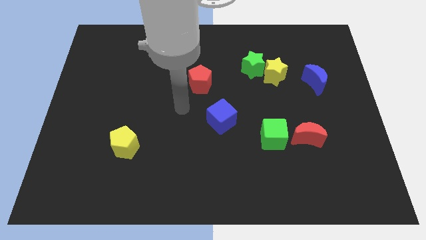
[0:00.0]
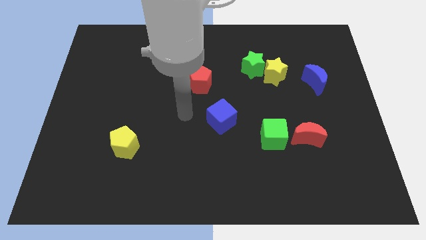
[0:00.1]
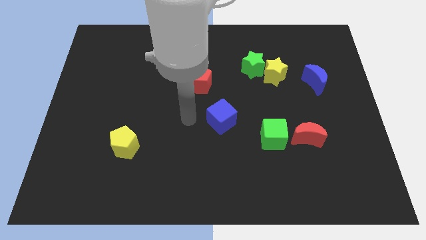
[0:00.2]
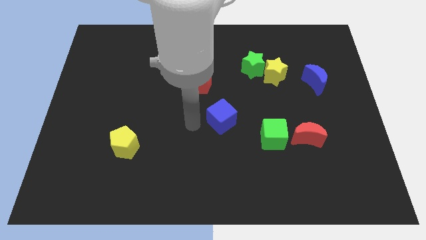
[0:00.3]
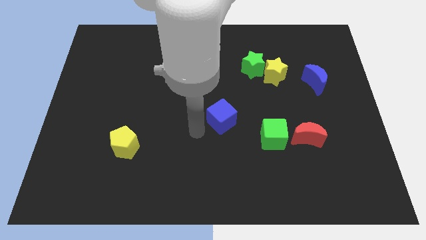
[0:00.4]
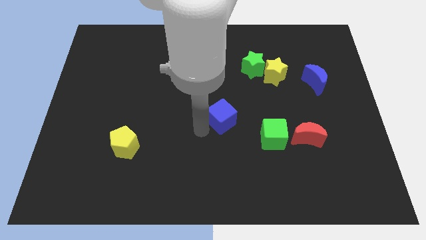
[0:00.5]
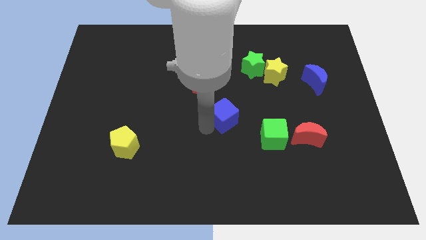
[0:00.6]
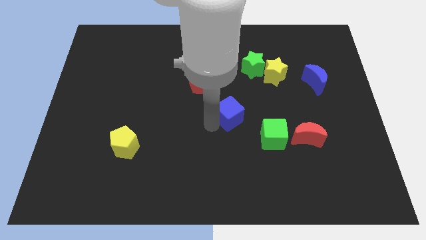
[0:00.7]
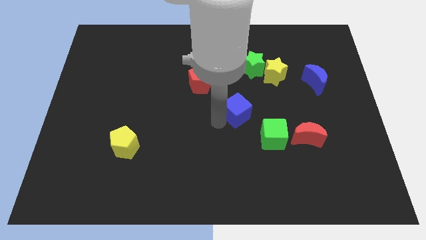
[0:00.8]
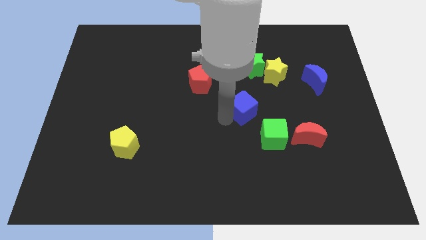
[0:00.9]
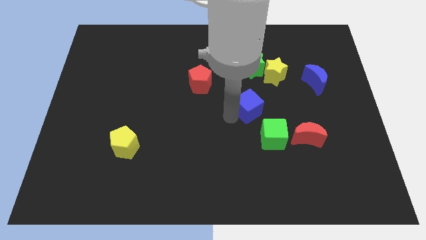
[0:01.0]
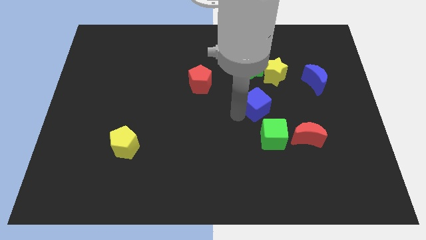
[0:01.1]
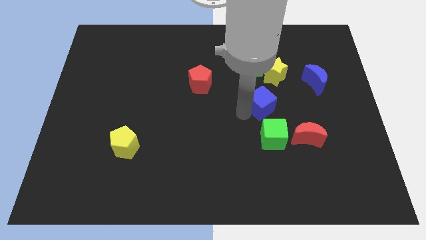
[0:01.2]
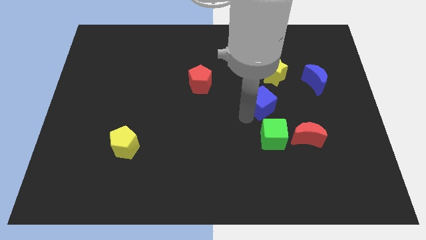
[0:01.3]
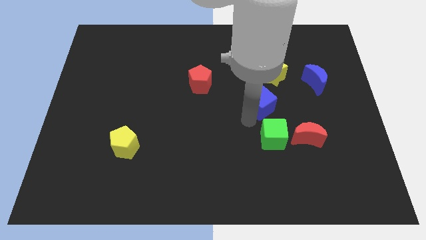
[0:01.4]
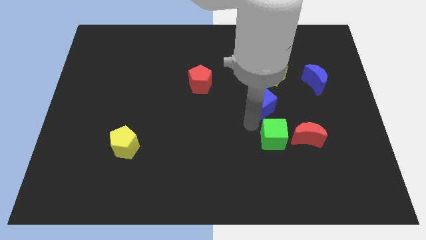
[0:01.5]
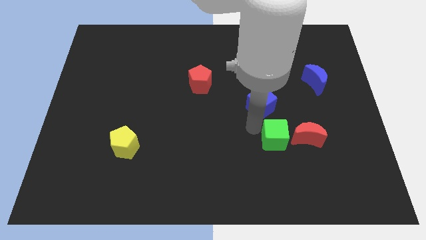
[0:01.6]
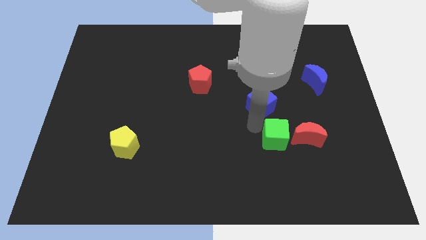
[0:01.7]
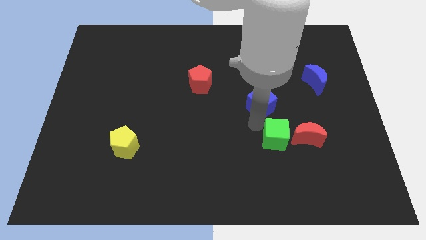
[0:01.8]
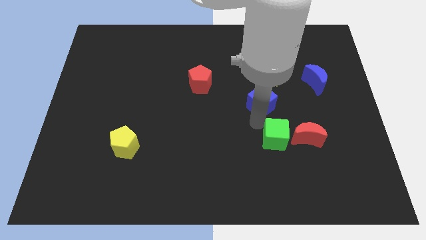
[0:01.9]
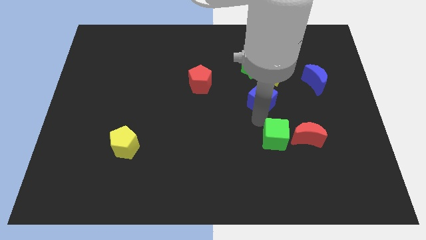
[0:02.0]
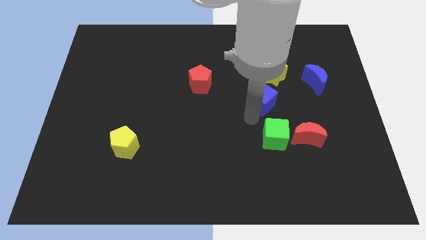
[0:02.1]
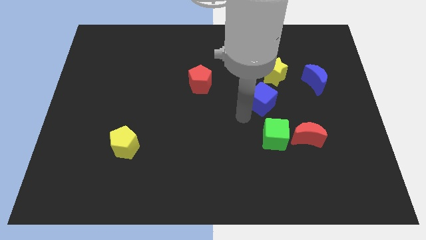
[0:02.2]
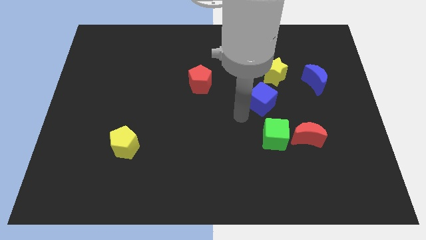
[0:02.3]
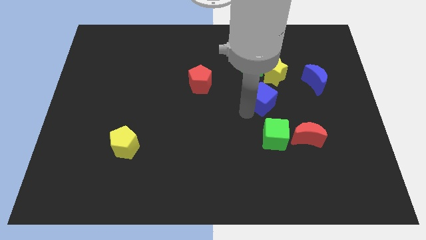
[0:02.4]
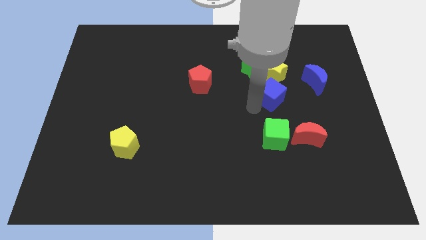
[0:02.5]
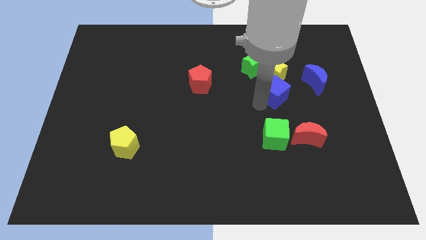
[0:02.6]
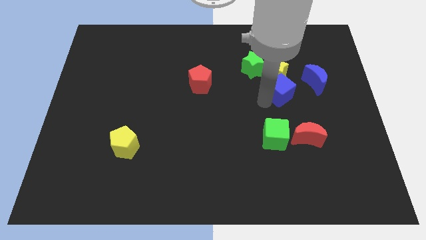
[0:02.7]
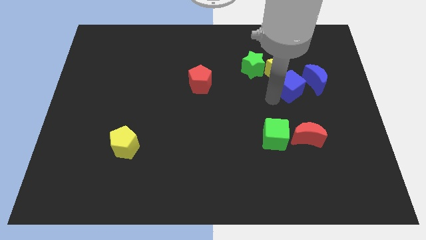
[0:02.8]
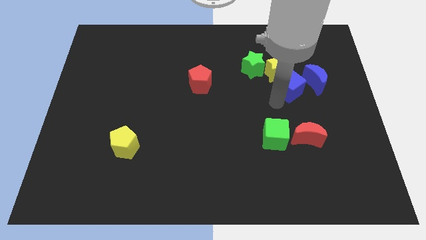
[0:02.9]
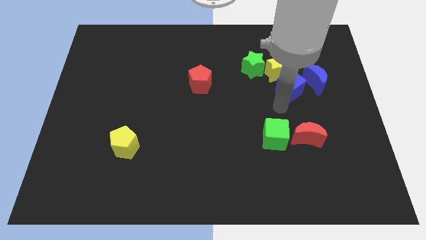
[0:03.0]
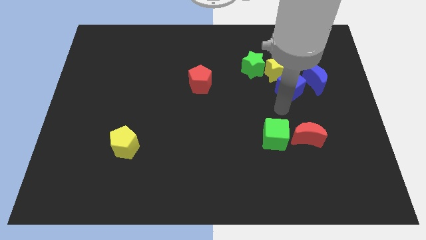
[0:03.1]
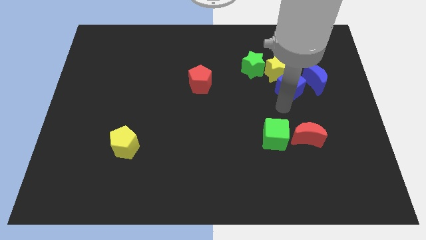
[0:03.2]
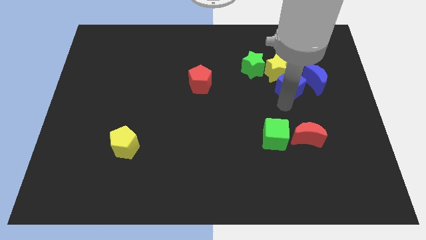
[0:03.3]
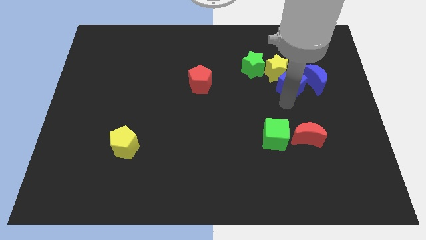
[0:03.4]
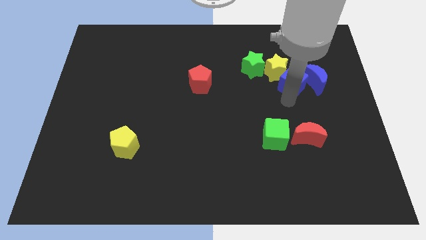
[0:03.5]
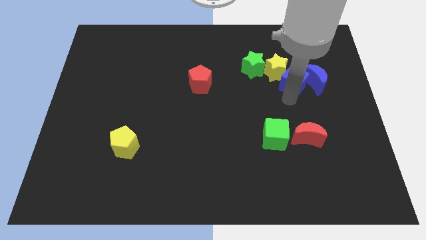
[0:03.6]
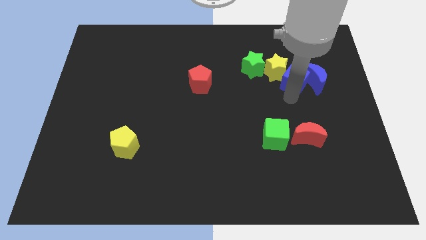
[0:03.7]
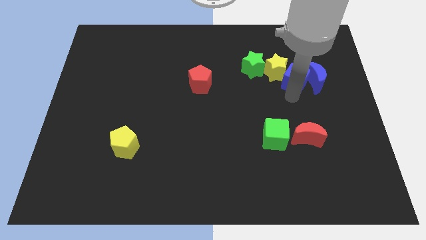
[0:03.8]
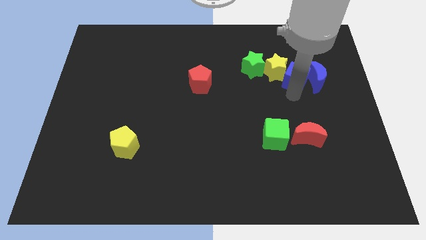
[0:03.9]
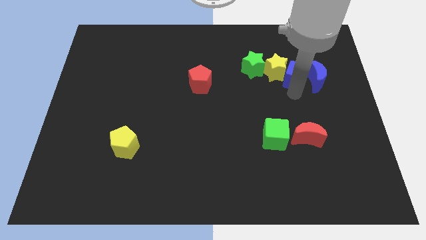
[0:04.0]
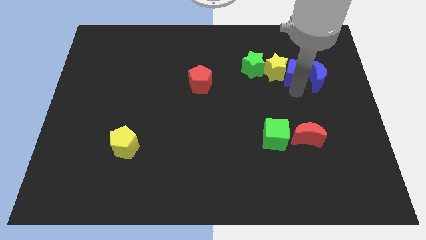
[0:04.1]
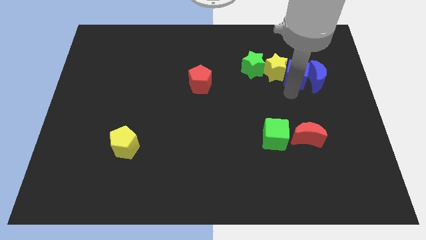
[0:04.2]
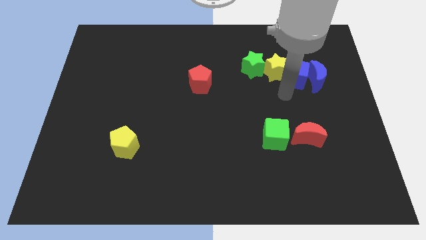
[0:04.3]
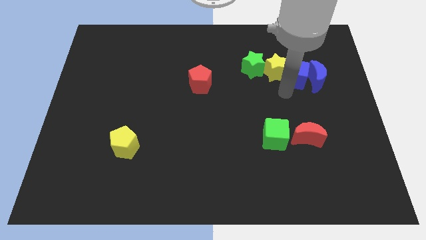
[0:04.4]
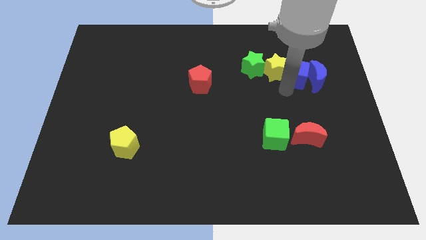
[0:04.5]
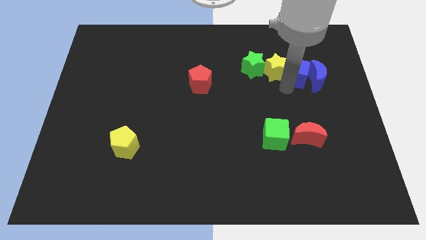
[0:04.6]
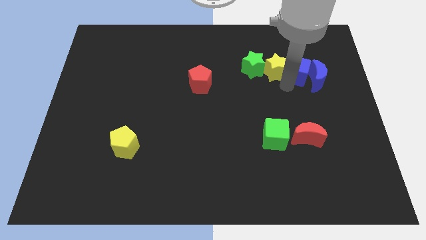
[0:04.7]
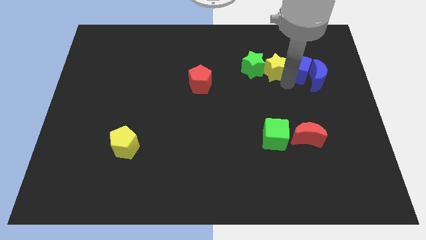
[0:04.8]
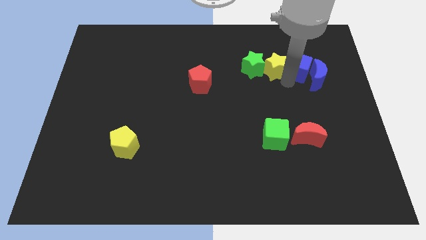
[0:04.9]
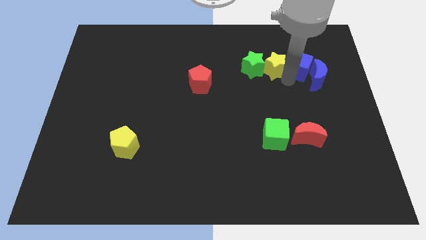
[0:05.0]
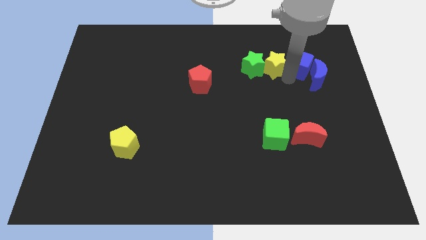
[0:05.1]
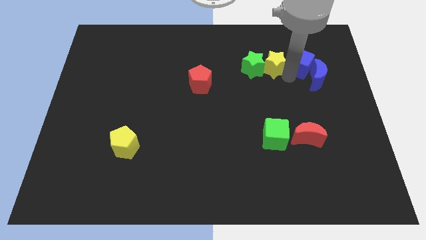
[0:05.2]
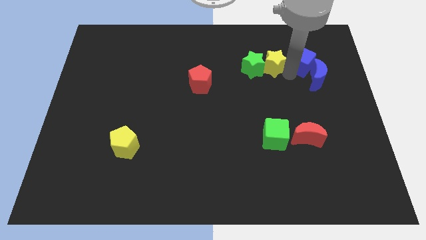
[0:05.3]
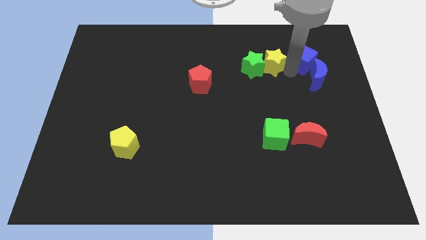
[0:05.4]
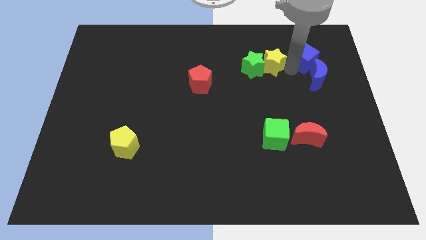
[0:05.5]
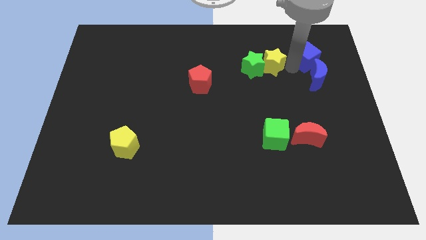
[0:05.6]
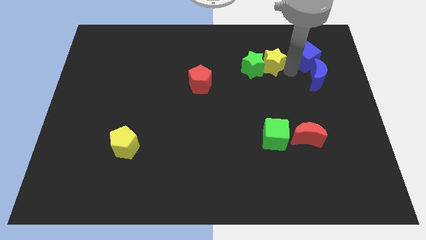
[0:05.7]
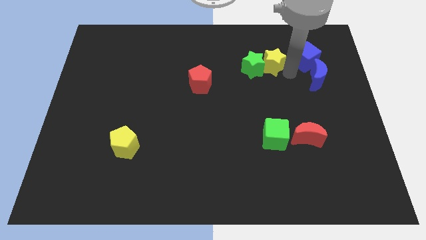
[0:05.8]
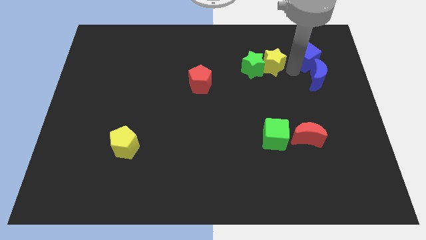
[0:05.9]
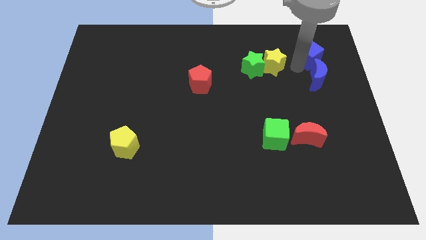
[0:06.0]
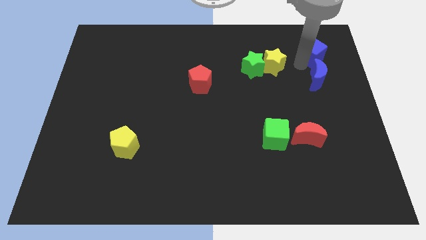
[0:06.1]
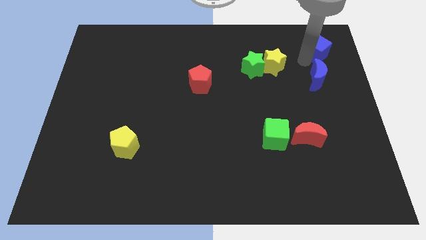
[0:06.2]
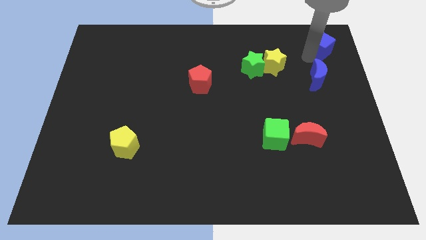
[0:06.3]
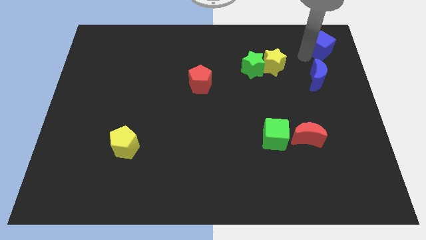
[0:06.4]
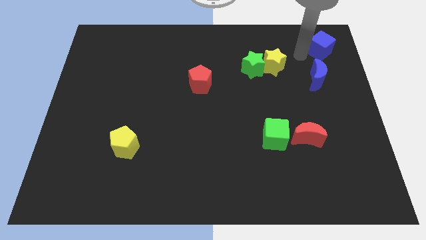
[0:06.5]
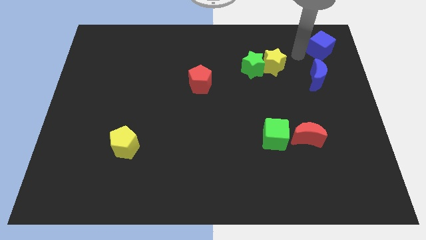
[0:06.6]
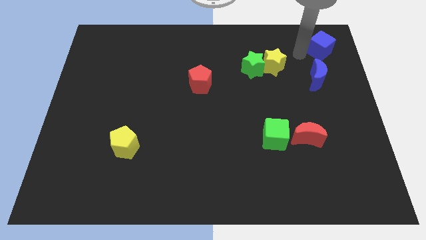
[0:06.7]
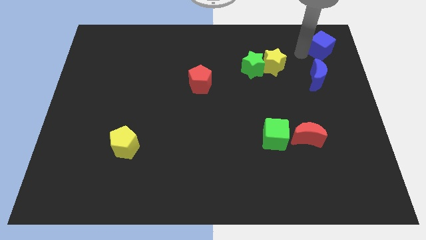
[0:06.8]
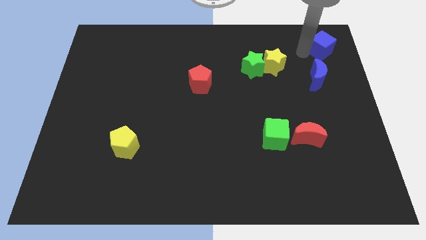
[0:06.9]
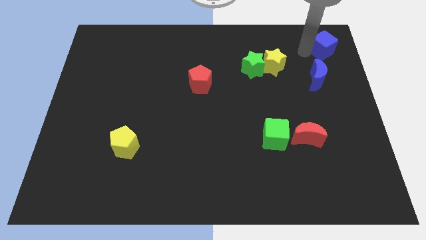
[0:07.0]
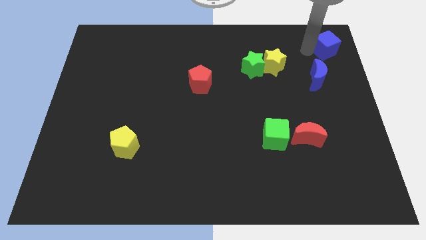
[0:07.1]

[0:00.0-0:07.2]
slide the blue cube to the upper right corner
